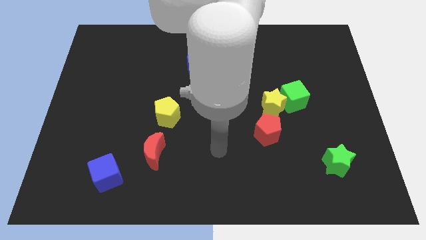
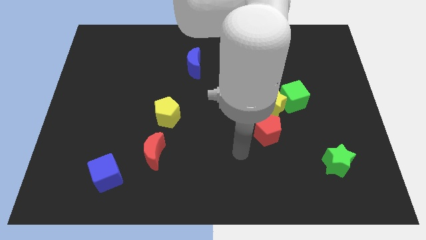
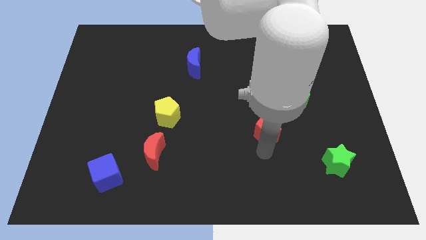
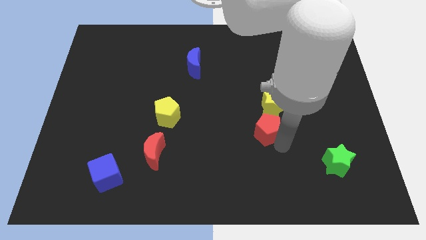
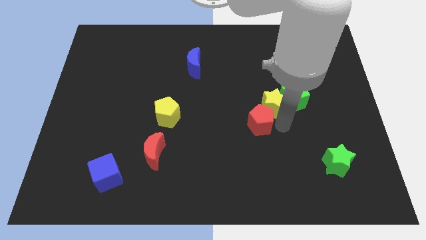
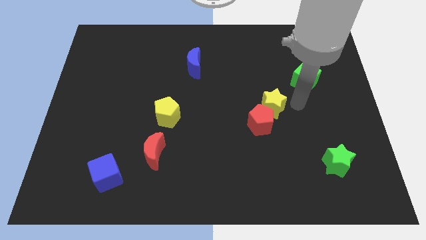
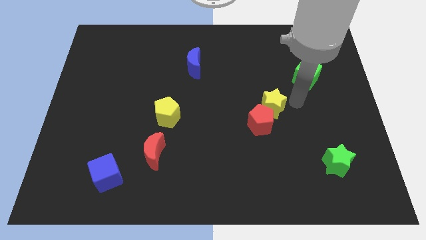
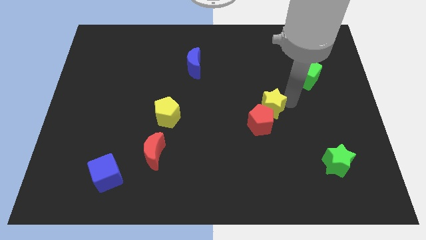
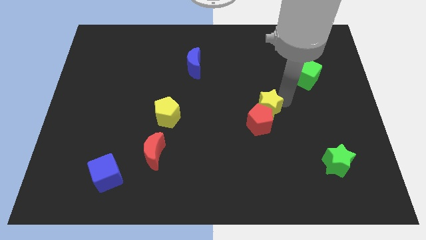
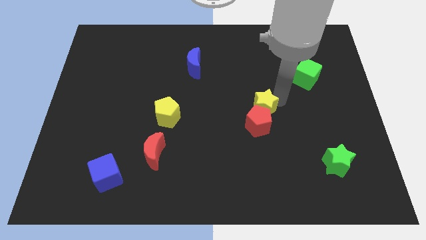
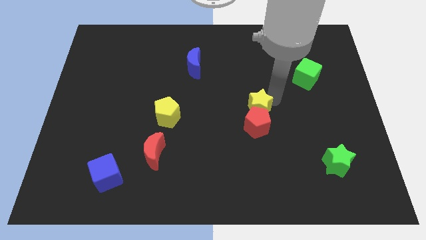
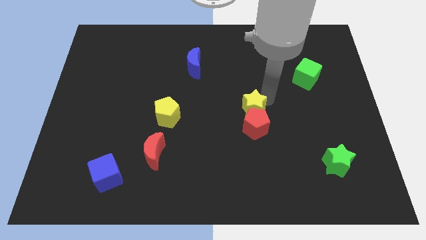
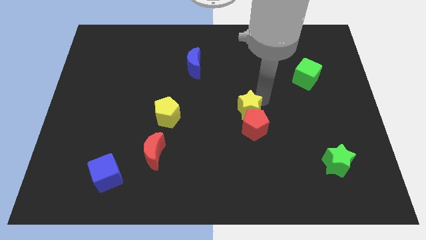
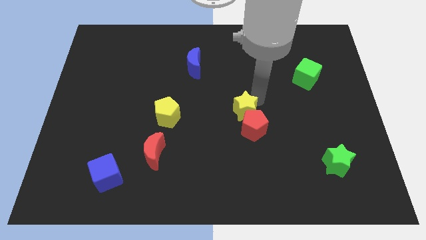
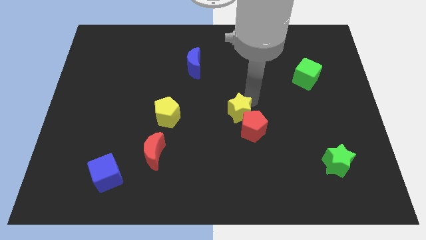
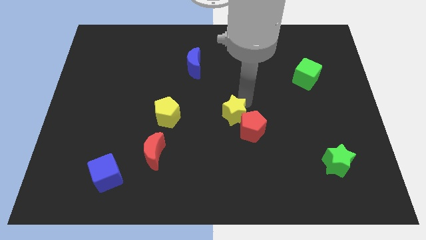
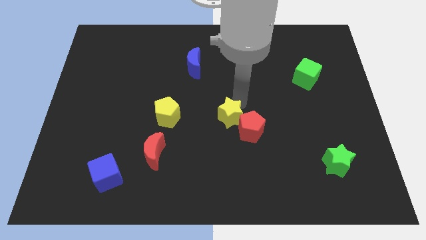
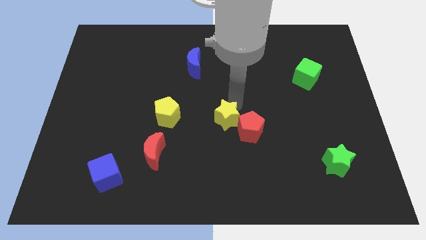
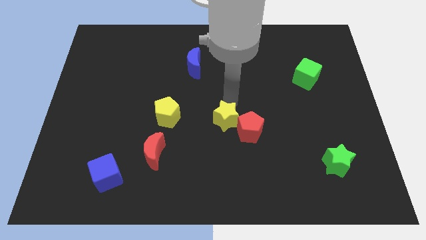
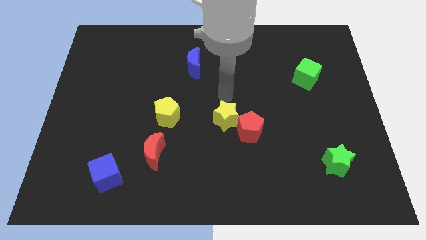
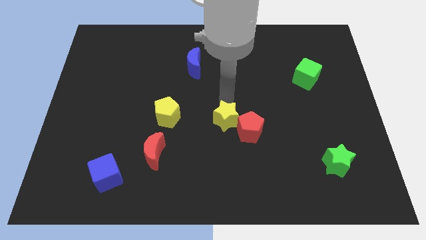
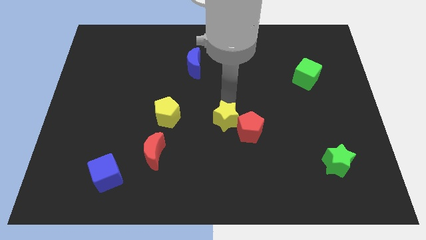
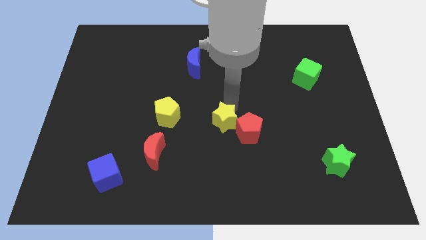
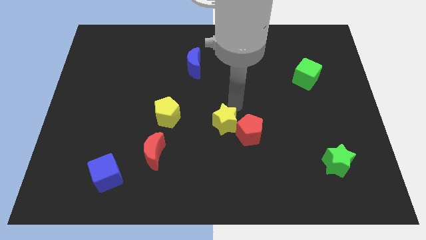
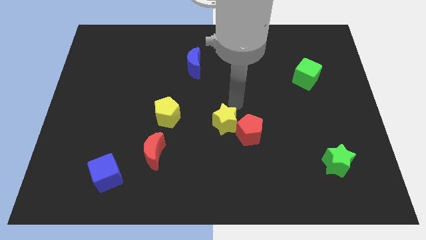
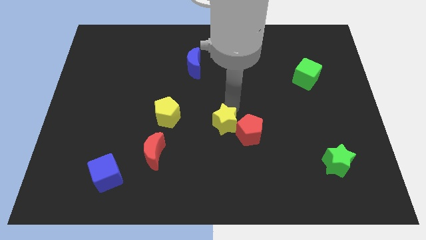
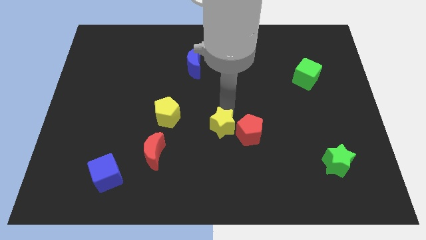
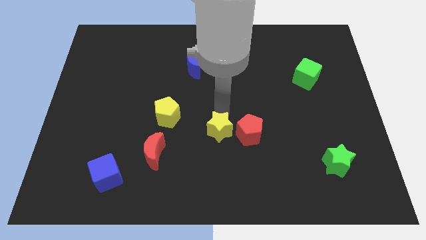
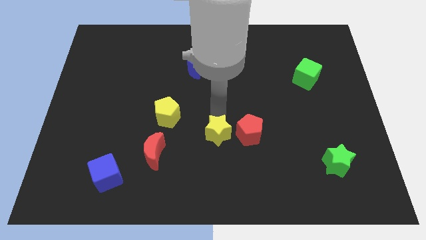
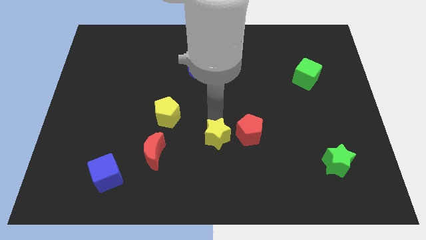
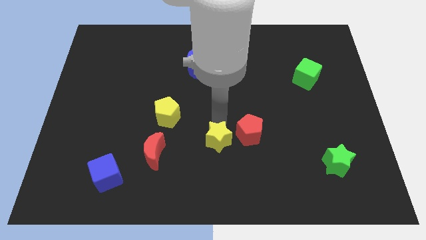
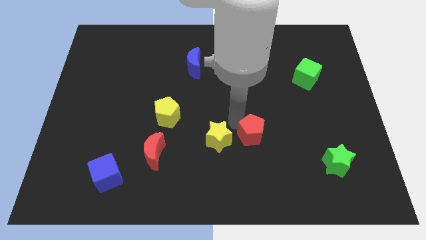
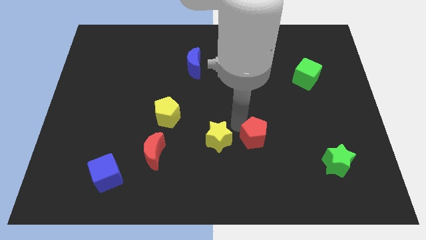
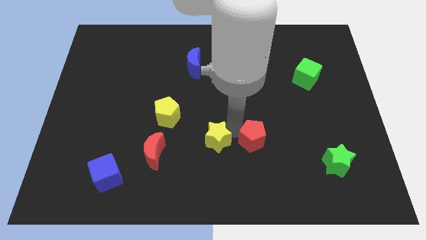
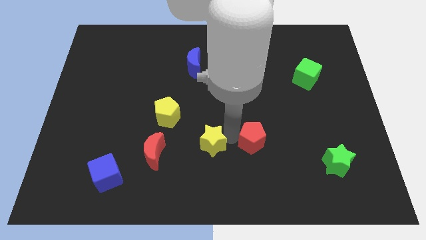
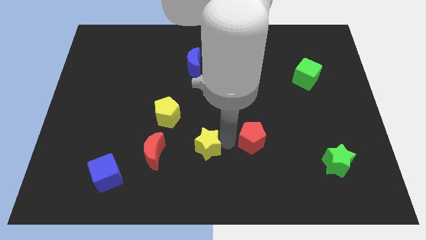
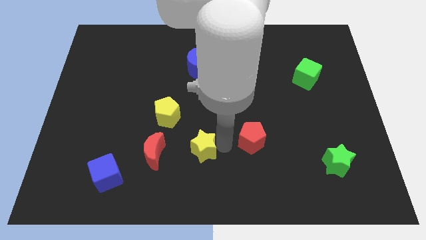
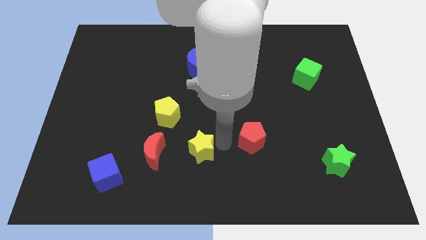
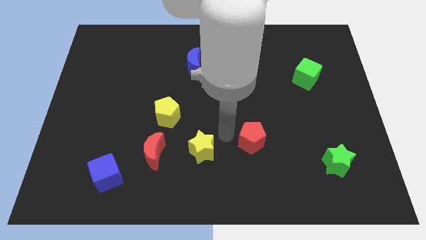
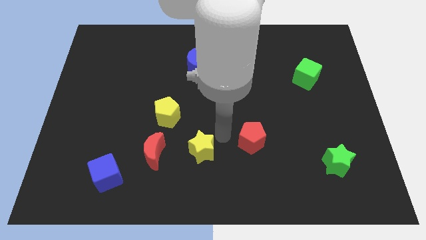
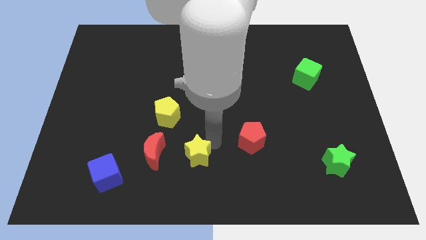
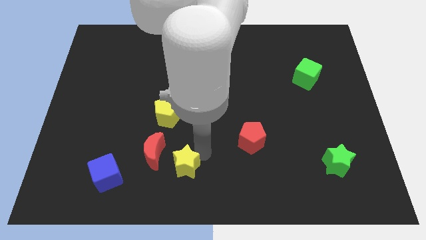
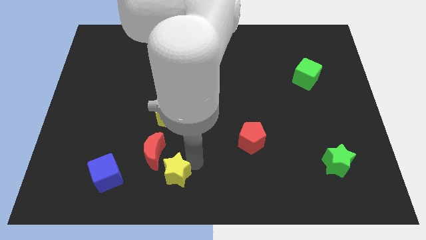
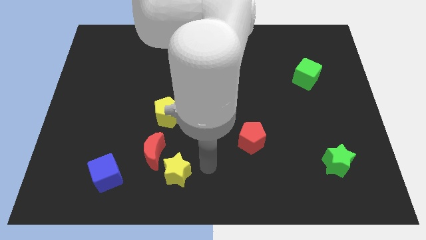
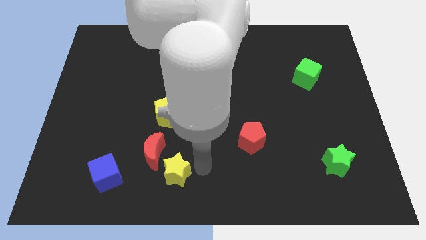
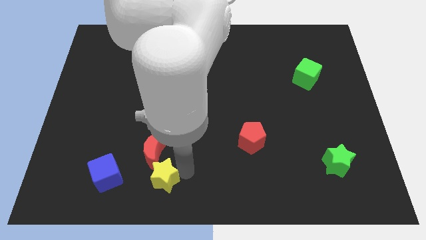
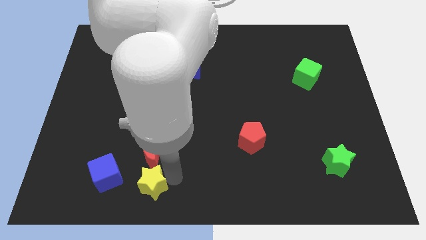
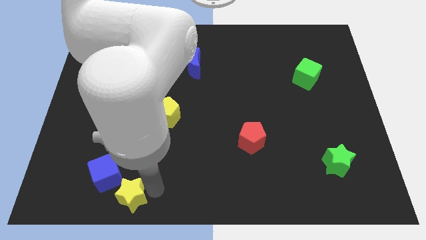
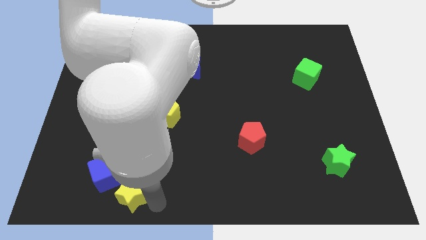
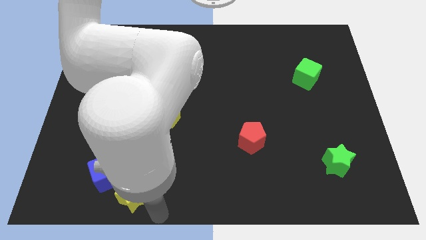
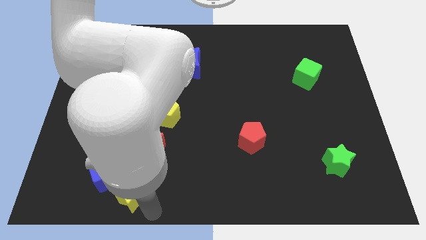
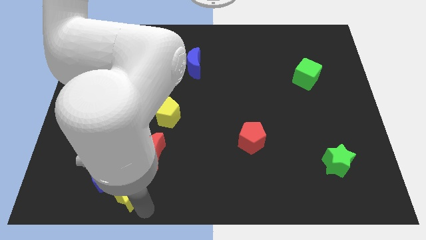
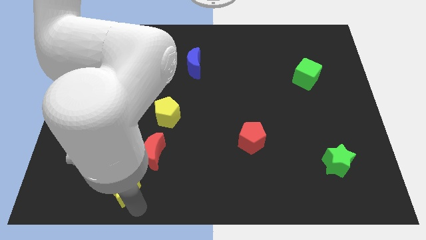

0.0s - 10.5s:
slide the yellow star close to the blue cube

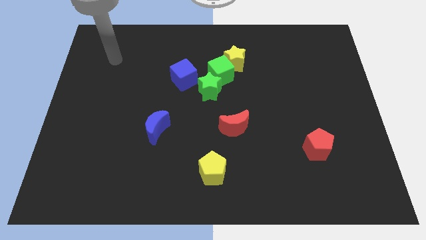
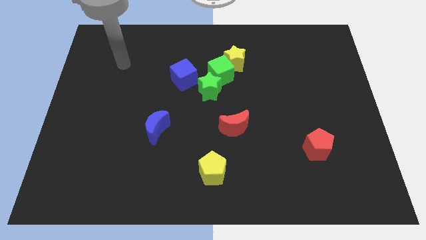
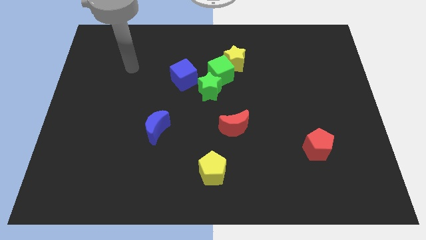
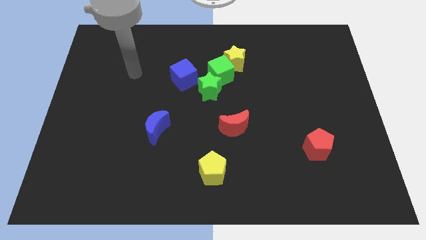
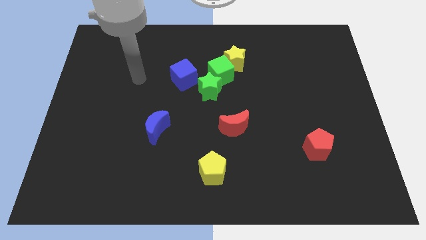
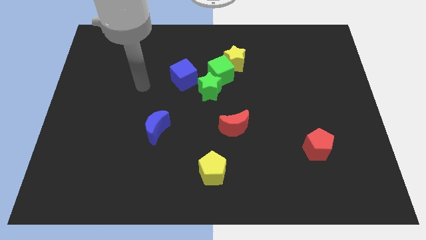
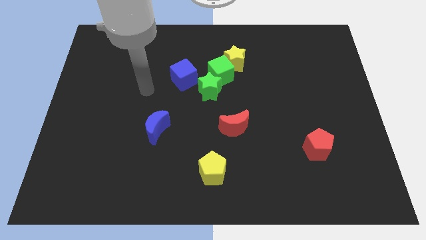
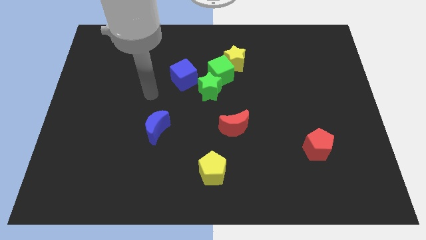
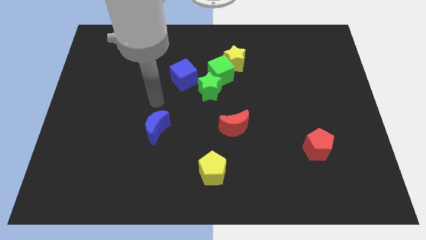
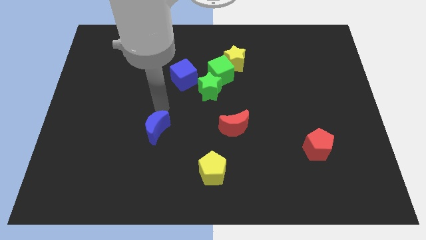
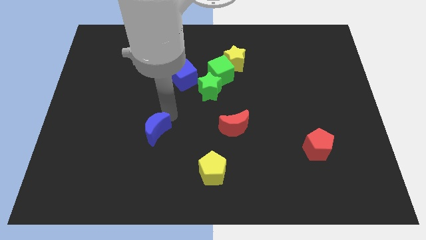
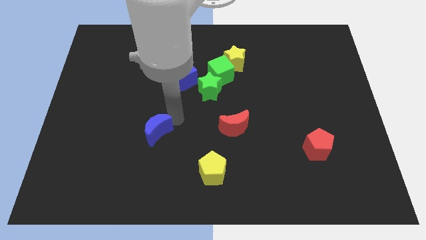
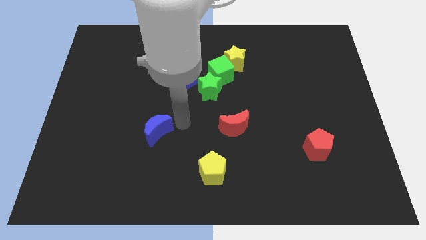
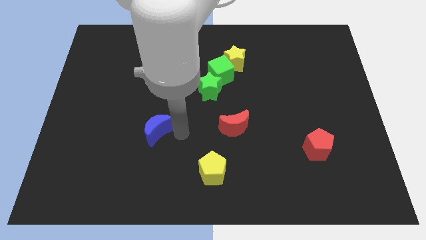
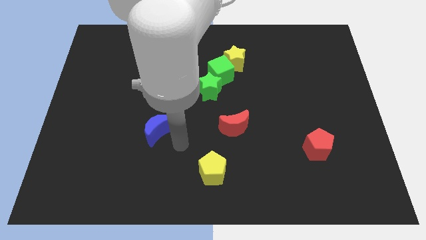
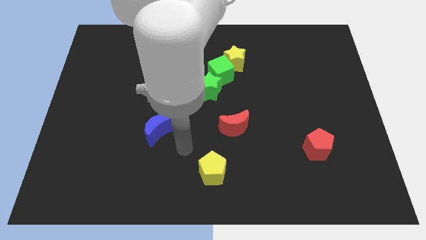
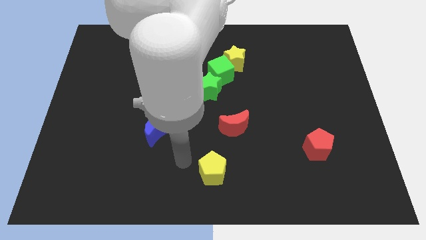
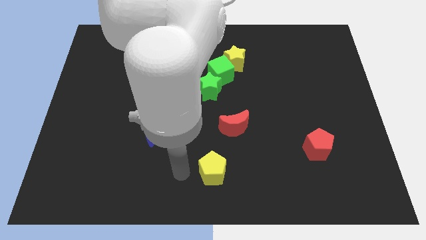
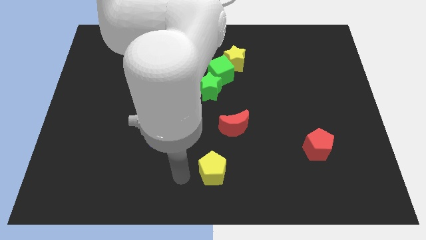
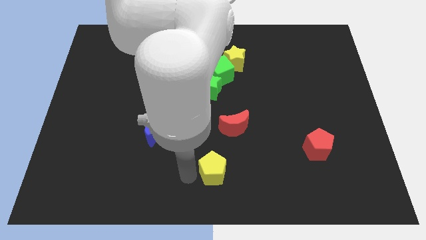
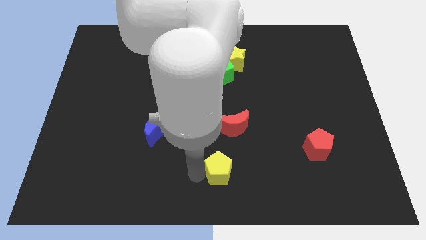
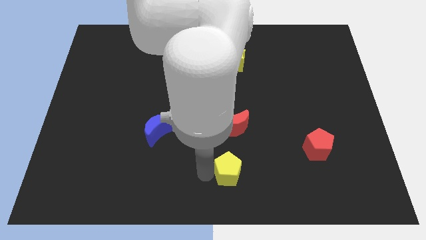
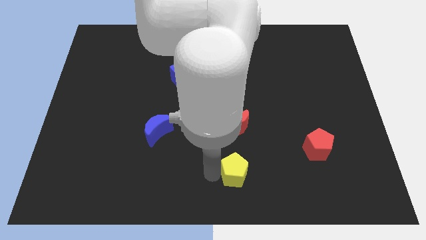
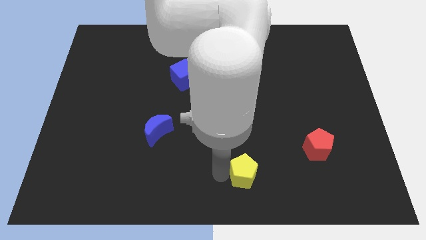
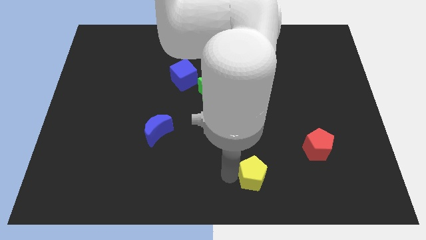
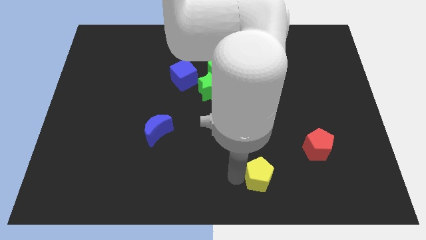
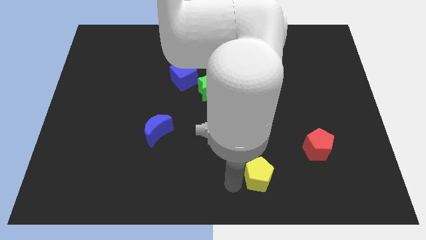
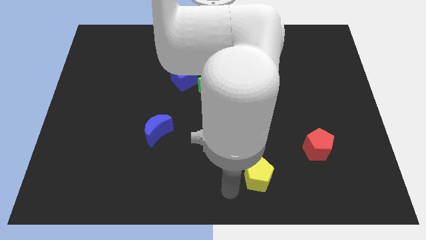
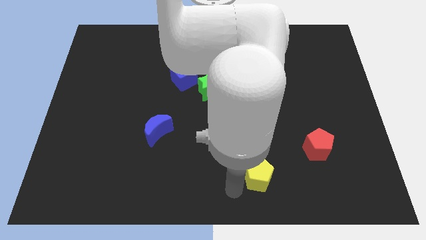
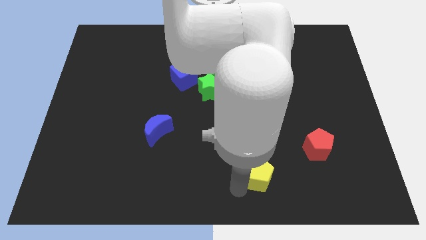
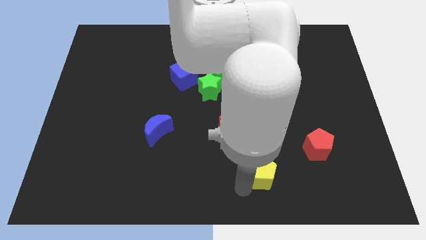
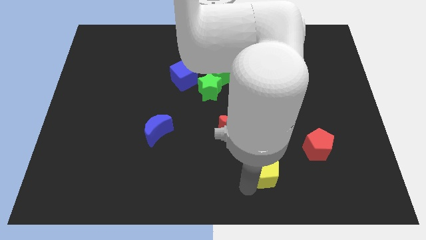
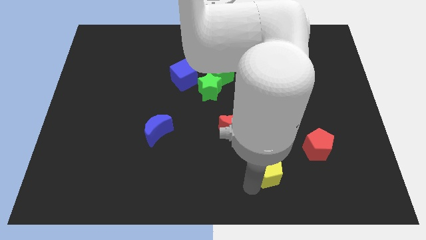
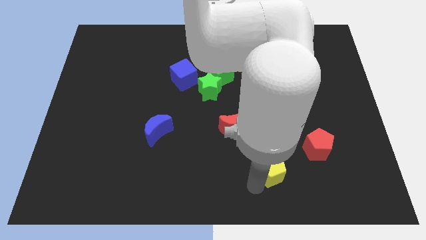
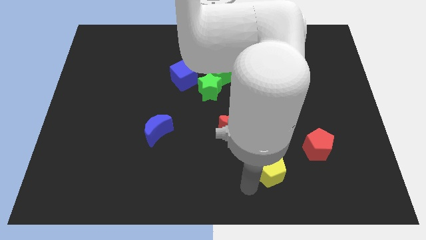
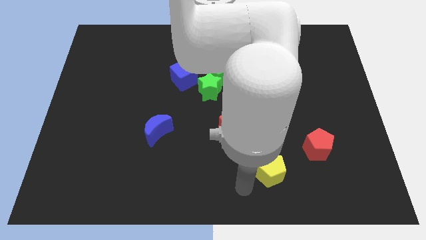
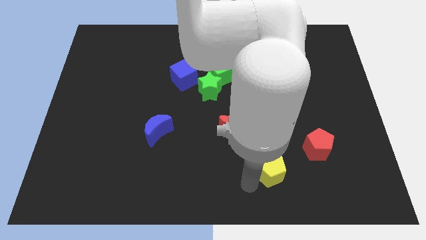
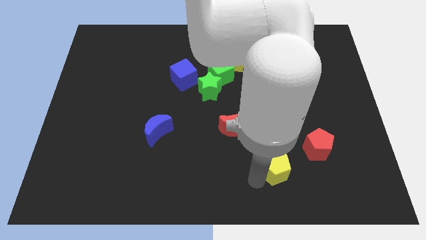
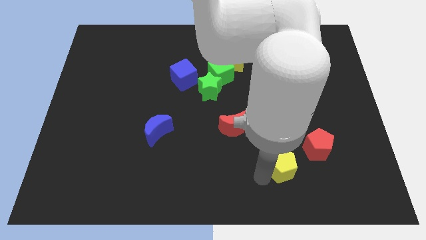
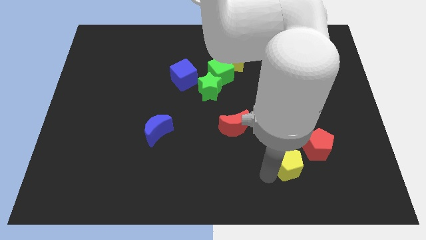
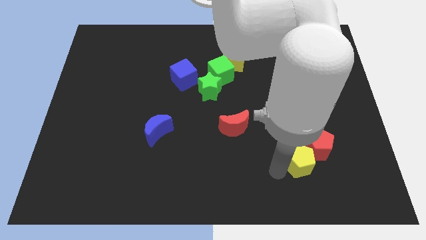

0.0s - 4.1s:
move the yellow pentagon towards the red pentagon
